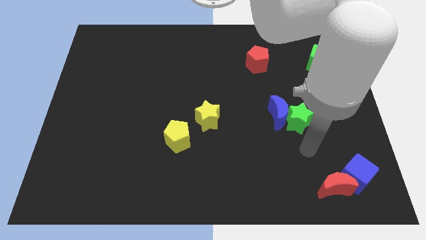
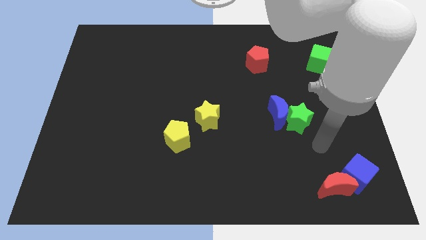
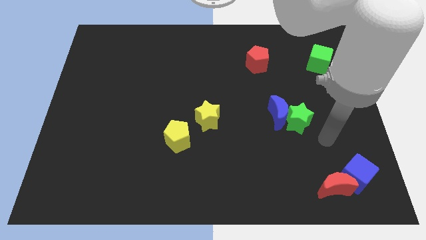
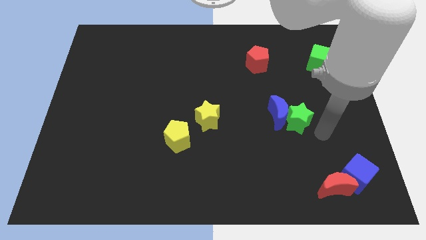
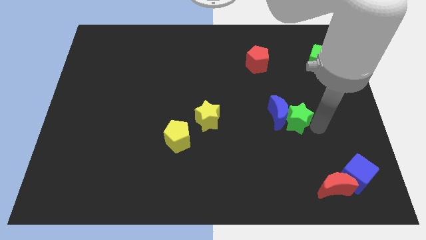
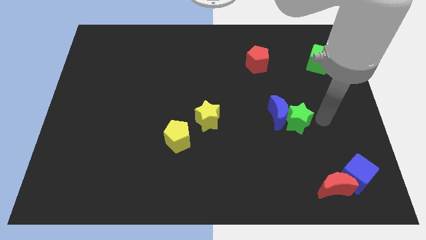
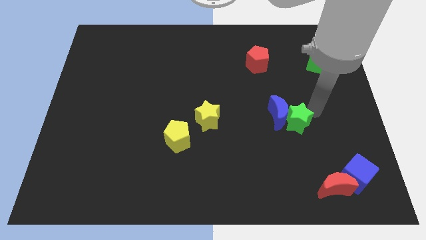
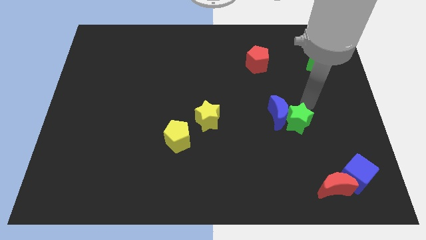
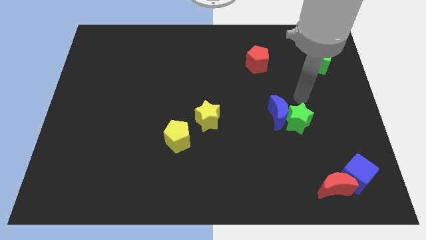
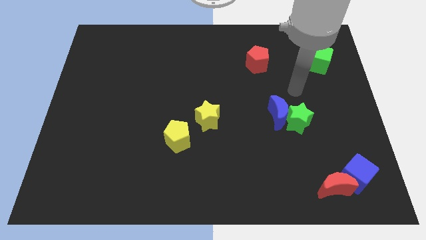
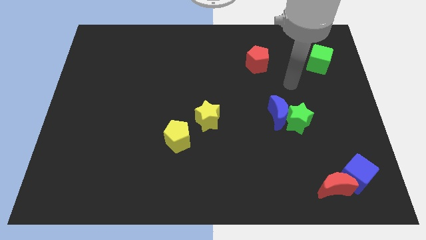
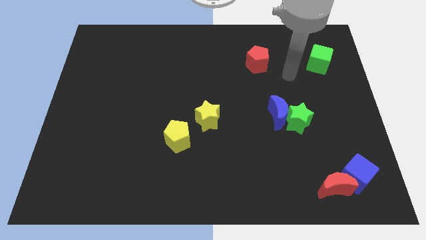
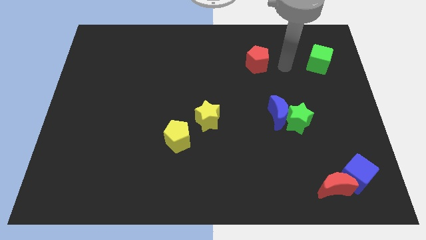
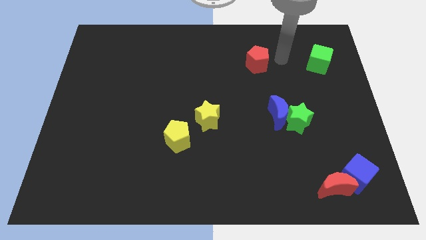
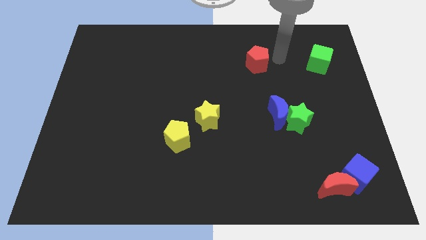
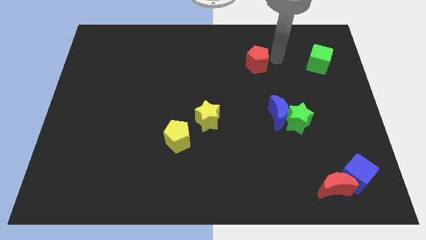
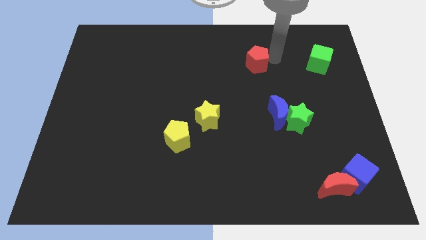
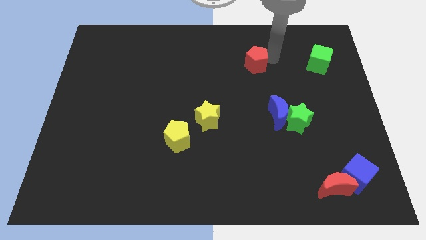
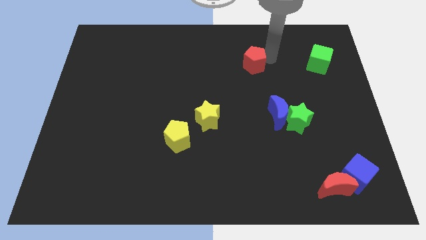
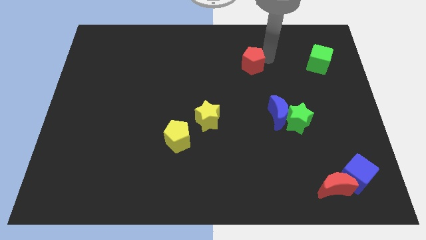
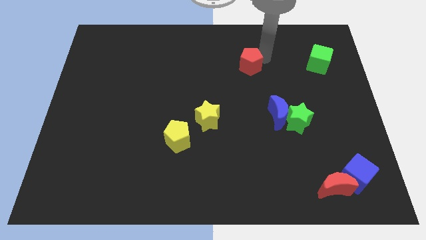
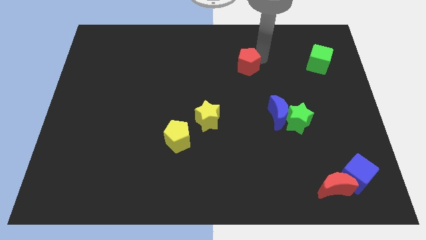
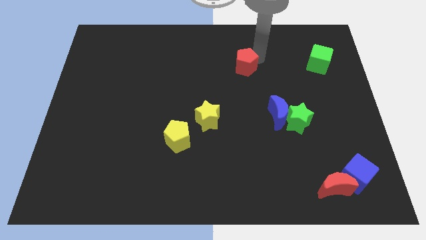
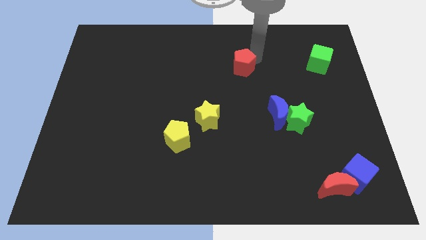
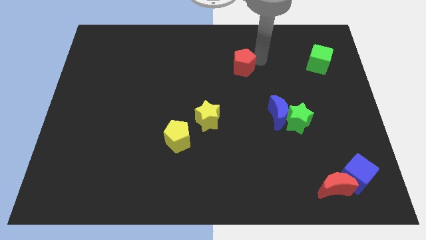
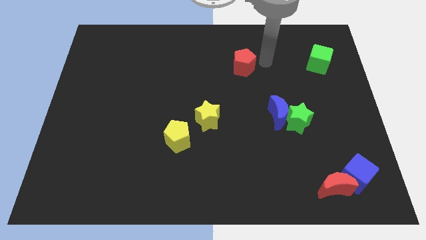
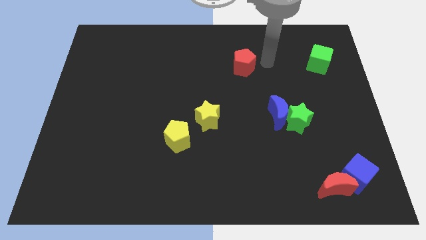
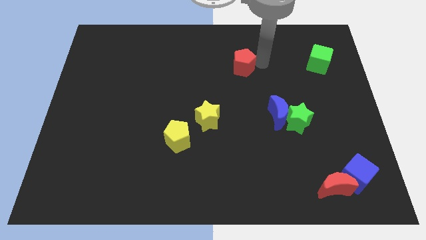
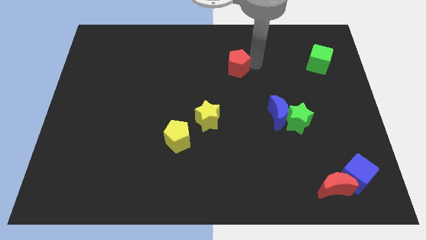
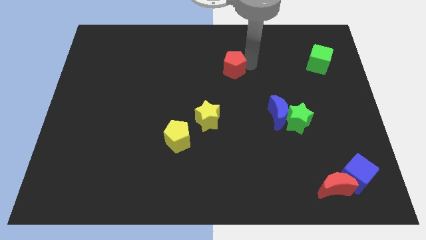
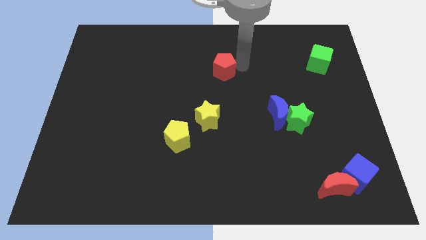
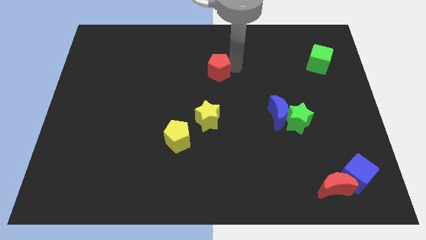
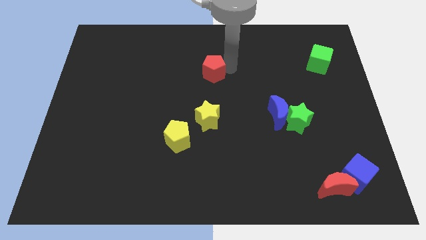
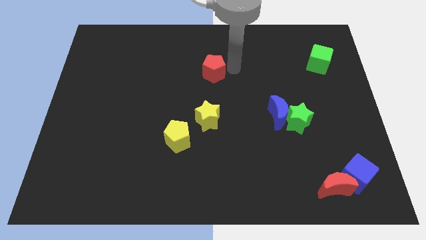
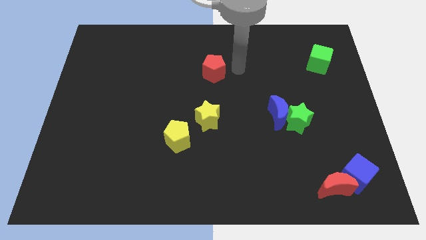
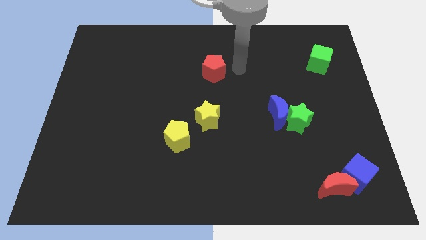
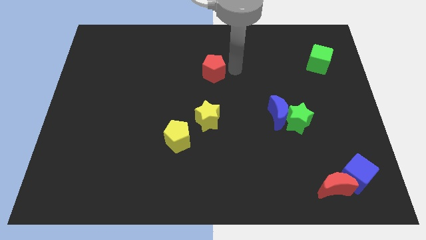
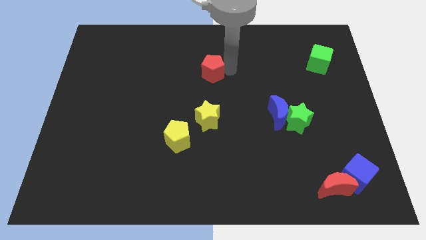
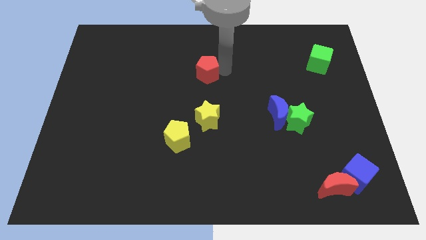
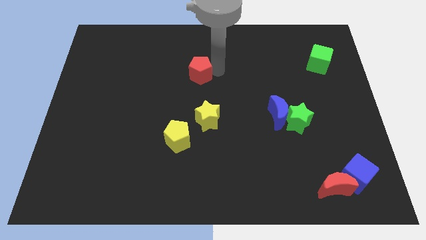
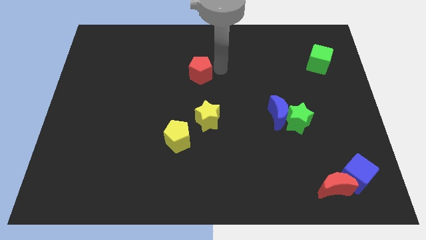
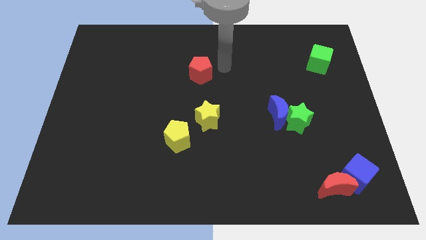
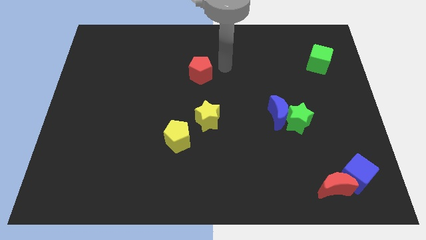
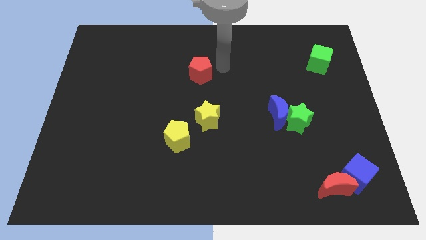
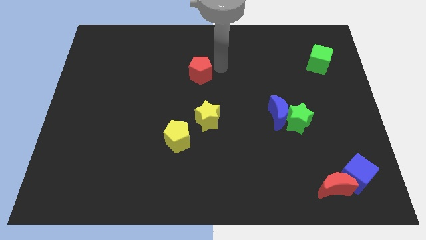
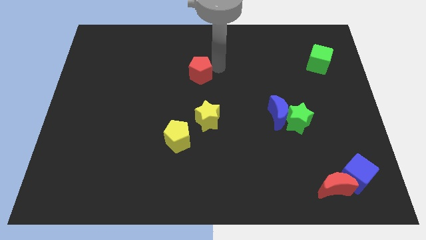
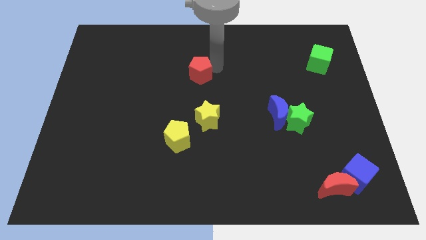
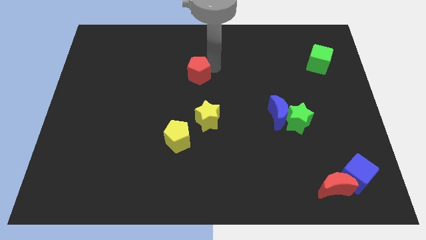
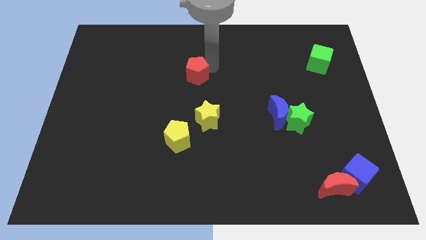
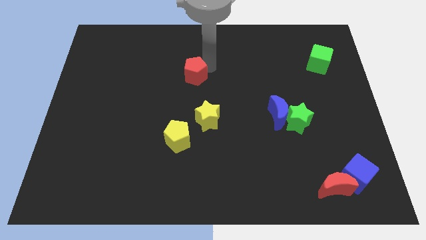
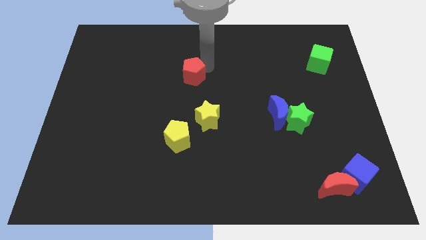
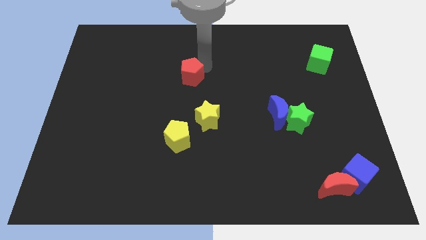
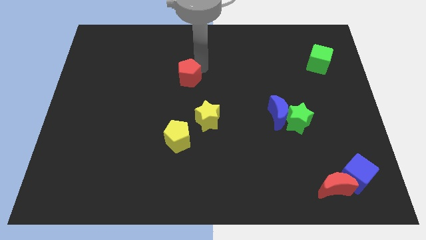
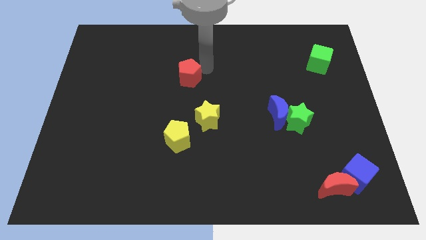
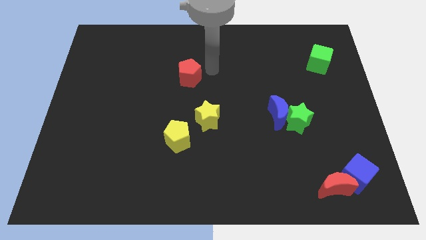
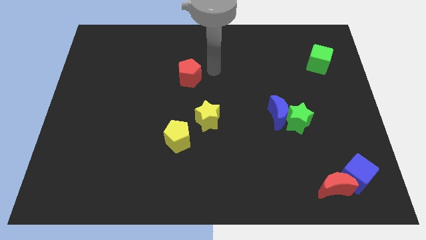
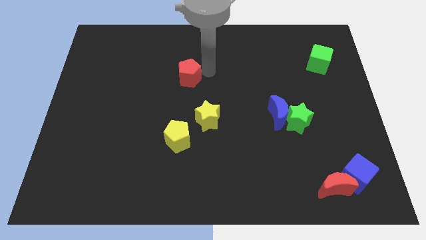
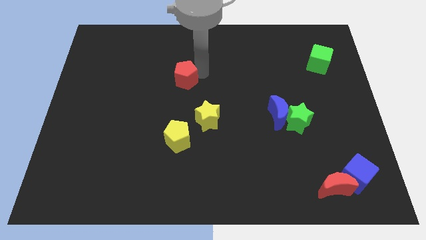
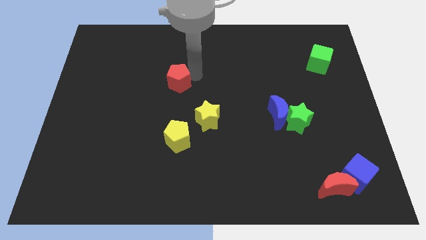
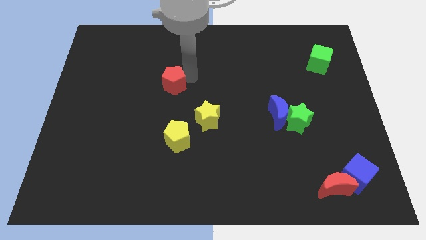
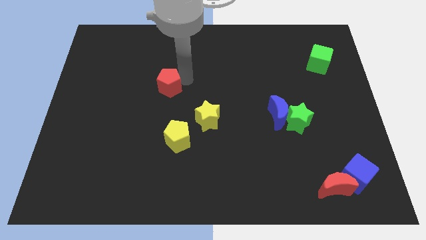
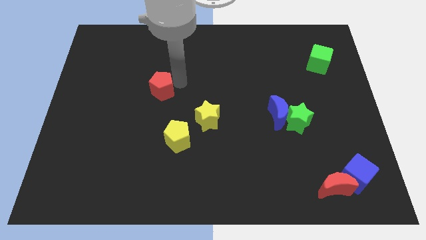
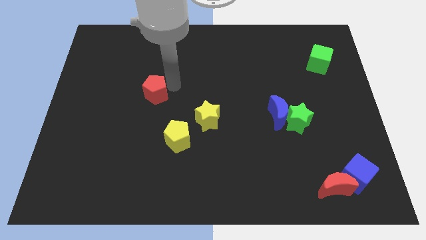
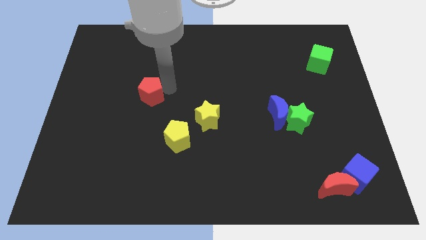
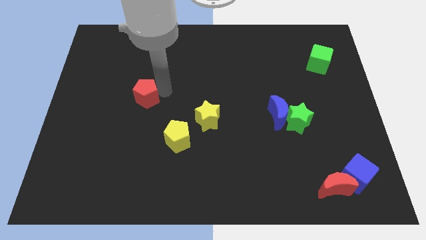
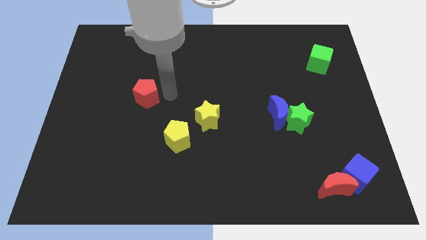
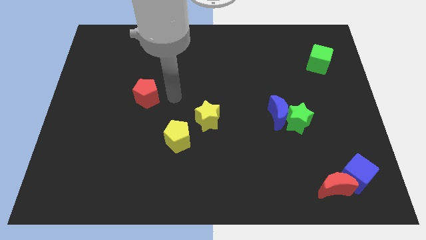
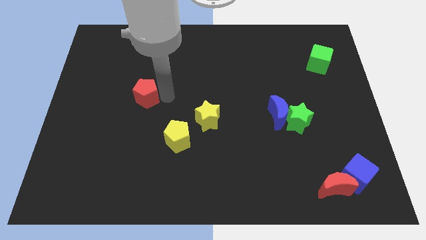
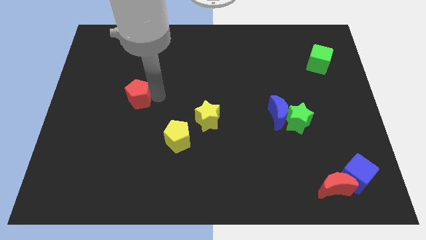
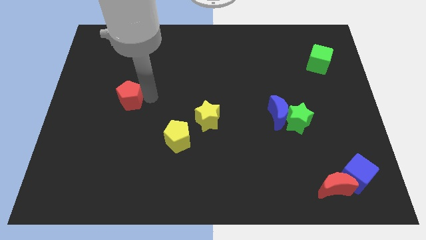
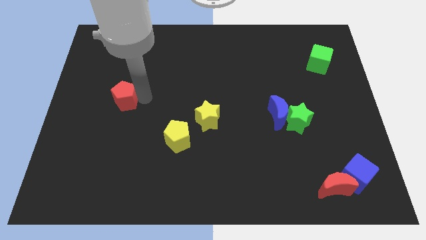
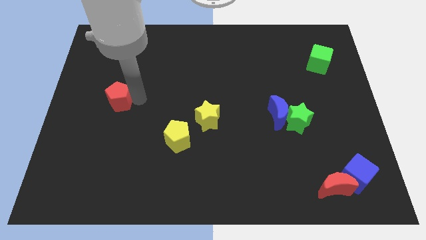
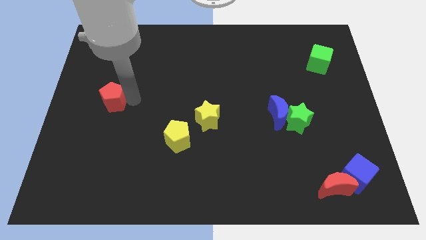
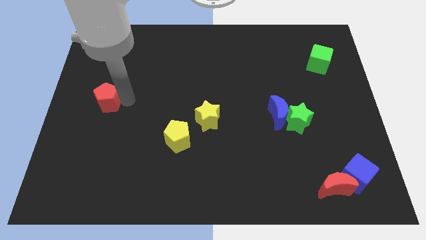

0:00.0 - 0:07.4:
move the red pentagon to the left side of the board

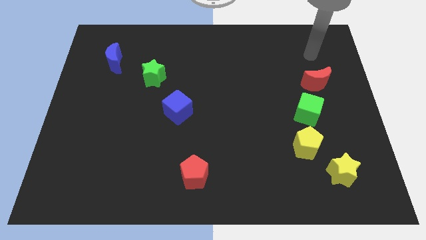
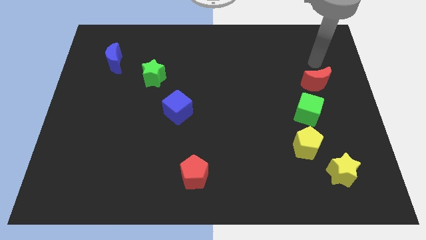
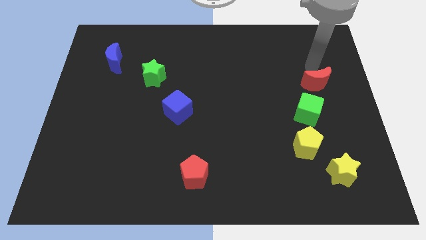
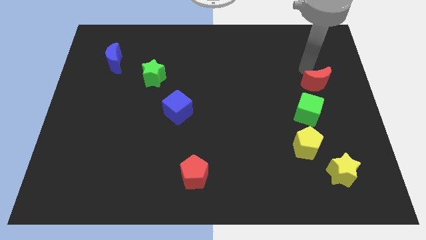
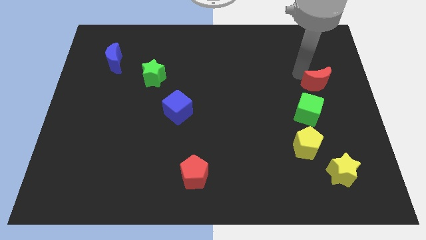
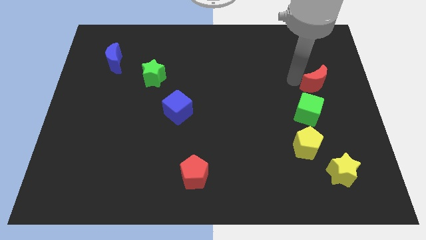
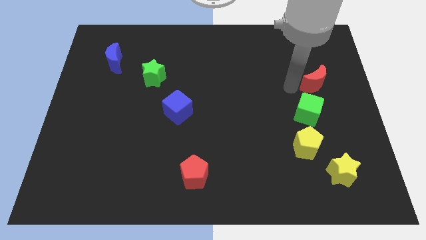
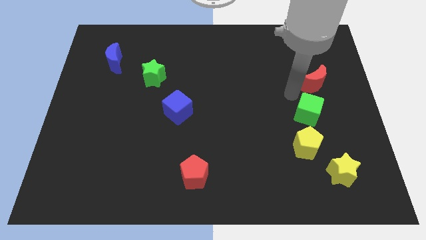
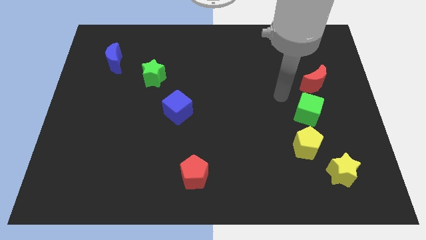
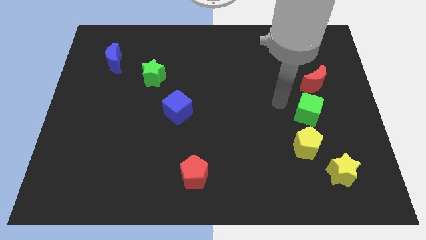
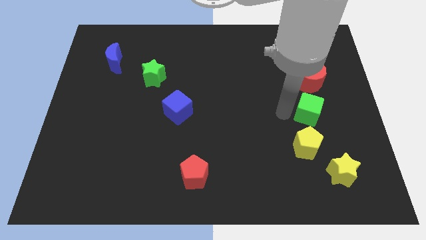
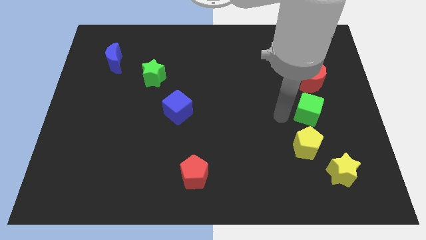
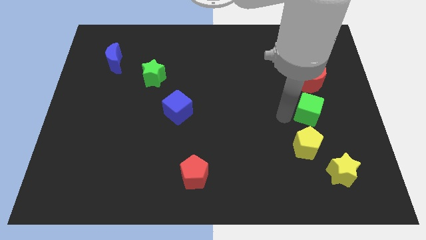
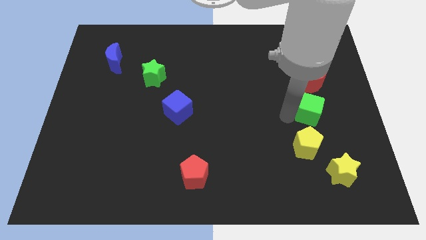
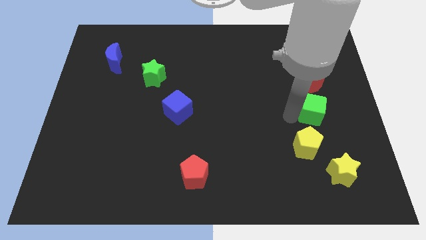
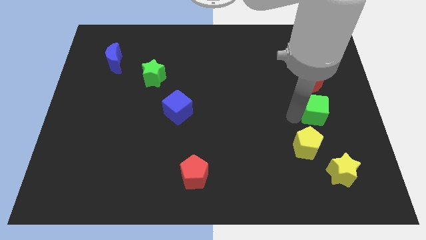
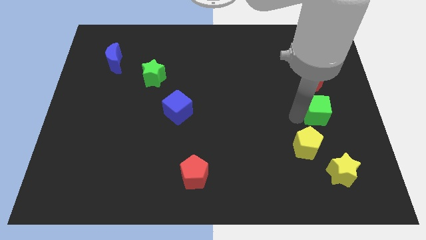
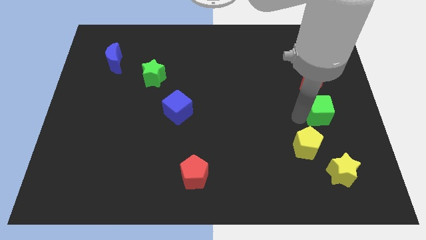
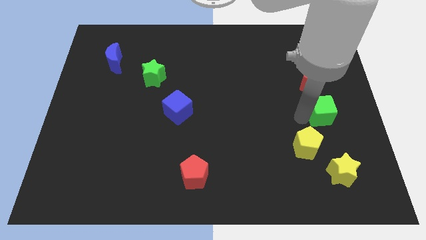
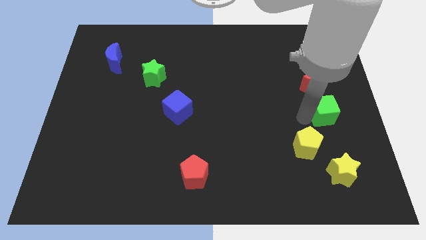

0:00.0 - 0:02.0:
move the green cube to the right side
